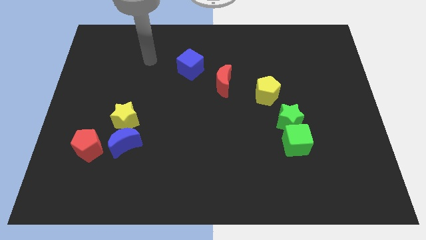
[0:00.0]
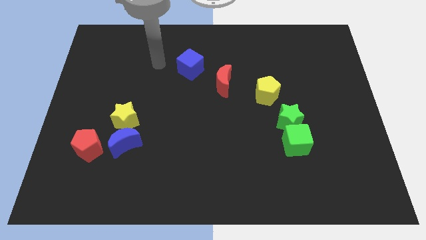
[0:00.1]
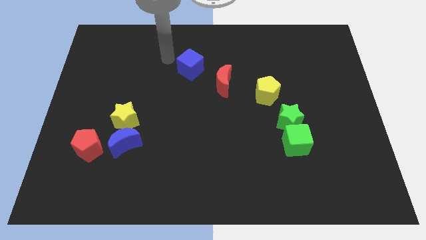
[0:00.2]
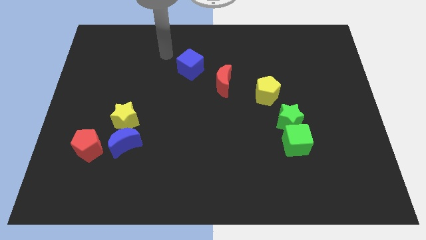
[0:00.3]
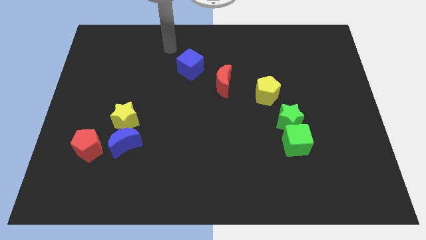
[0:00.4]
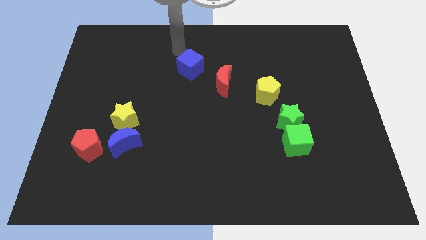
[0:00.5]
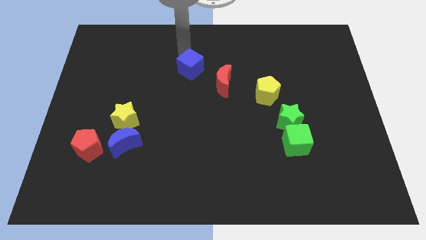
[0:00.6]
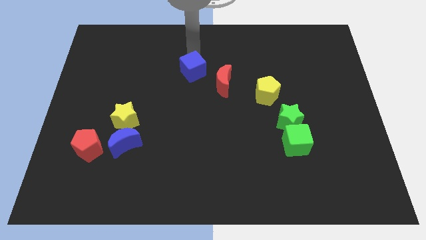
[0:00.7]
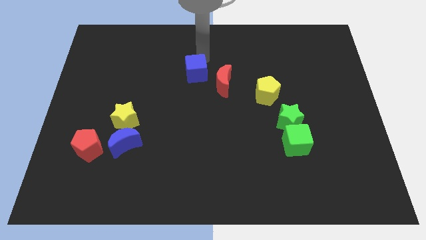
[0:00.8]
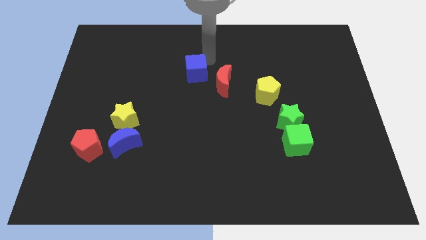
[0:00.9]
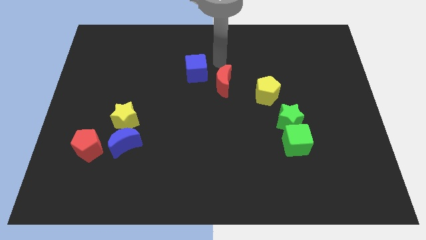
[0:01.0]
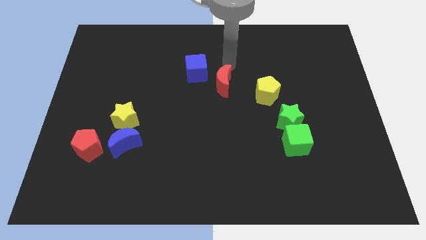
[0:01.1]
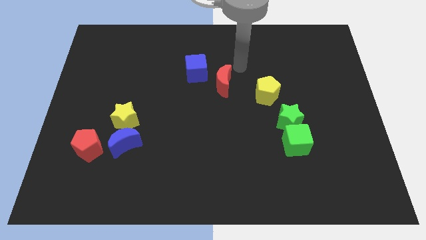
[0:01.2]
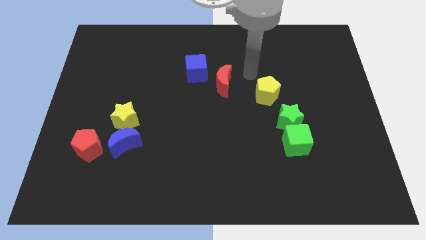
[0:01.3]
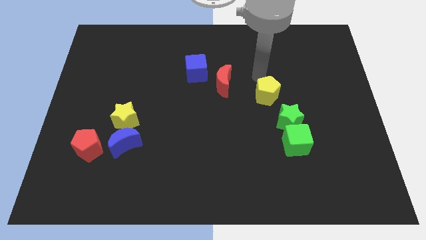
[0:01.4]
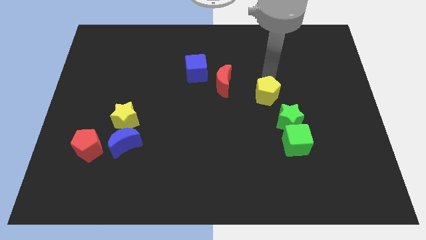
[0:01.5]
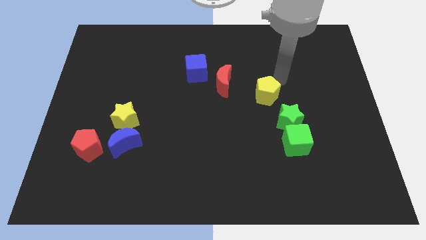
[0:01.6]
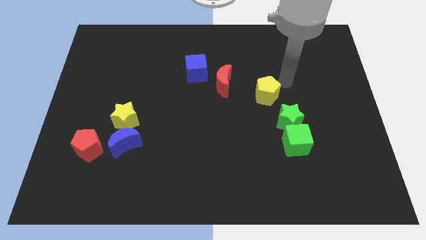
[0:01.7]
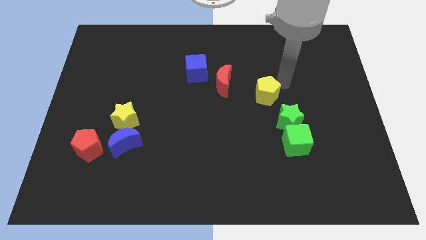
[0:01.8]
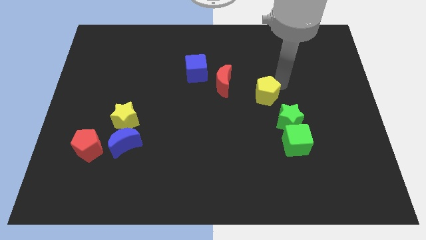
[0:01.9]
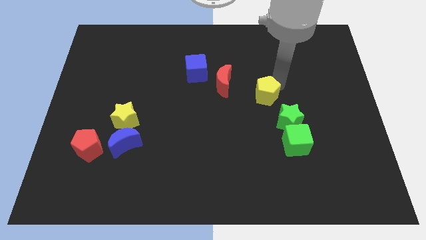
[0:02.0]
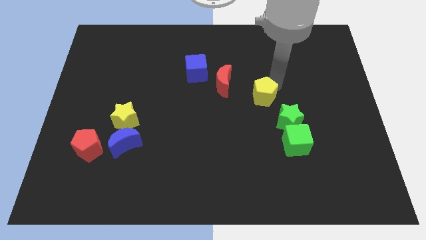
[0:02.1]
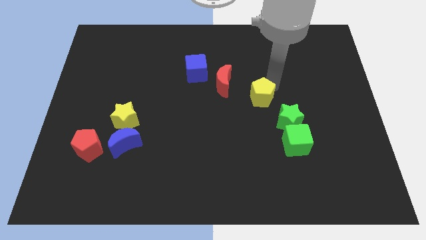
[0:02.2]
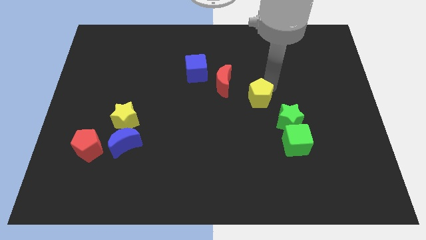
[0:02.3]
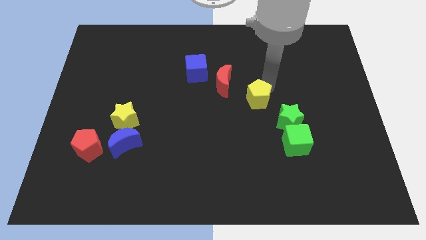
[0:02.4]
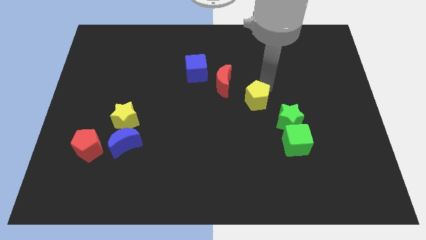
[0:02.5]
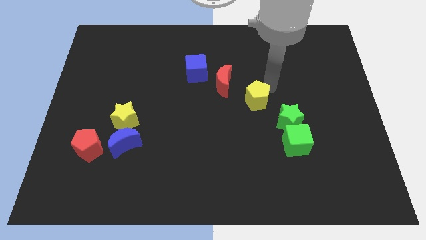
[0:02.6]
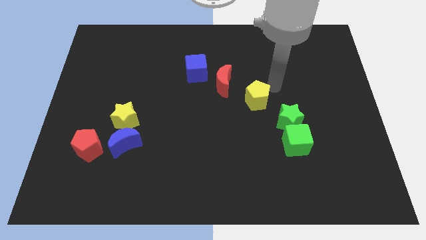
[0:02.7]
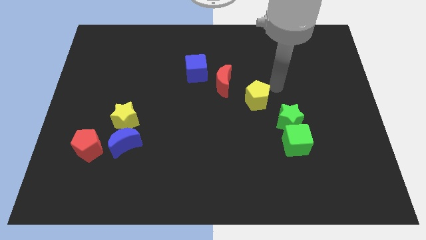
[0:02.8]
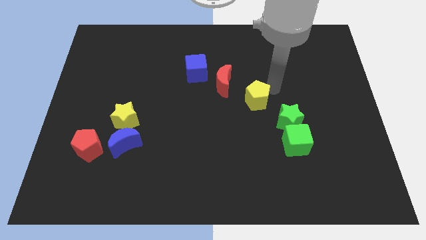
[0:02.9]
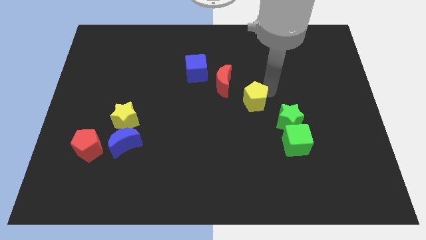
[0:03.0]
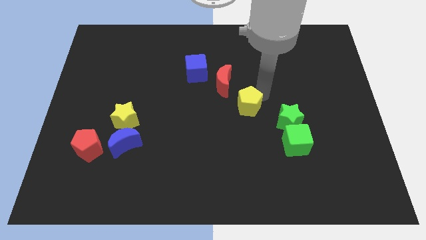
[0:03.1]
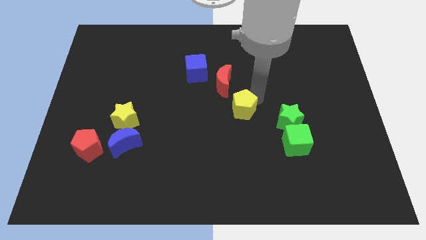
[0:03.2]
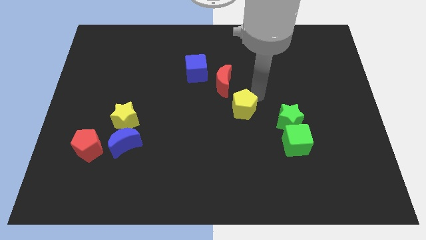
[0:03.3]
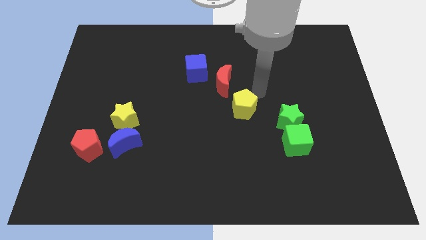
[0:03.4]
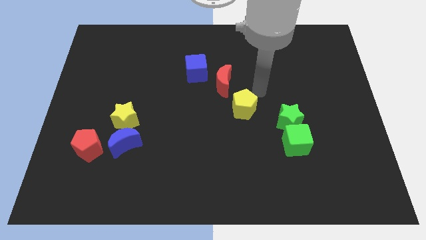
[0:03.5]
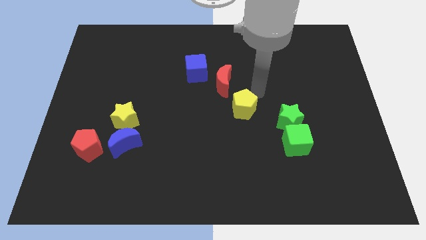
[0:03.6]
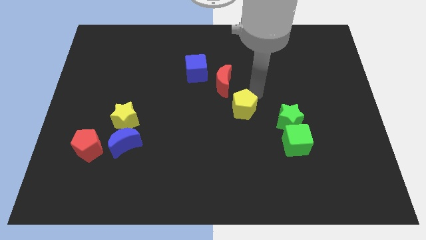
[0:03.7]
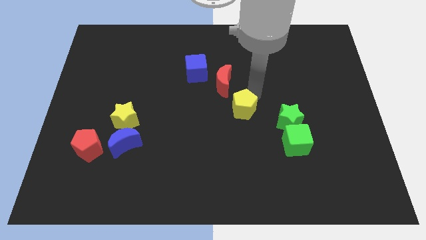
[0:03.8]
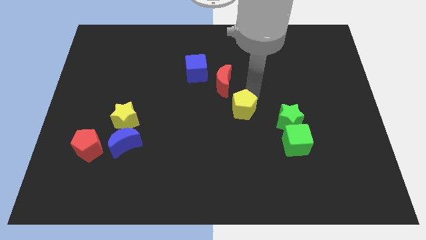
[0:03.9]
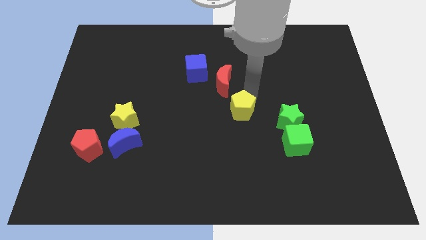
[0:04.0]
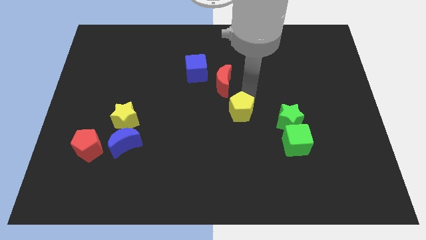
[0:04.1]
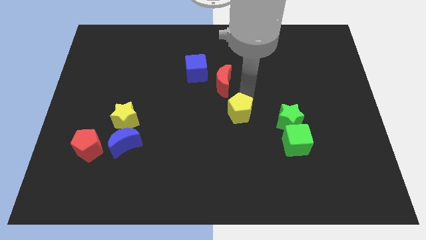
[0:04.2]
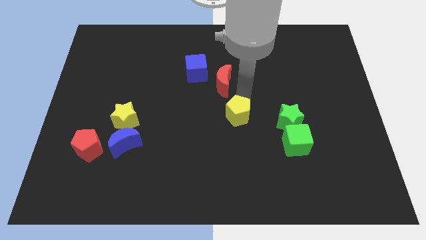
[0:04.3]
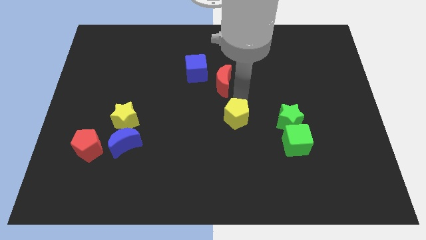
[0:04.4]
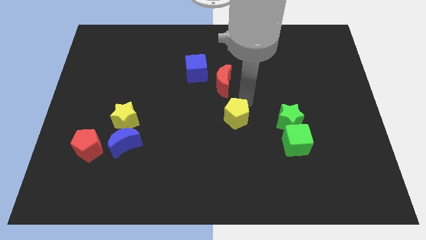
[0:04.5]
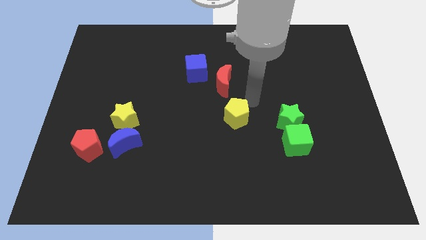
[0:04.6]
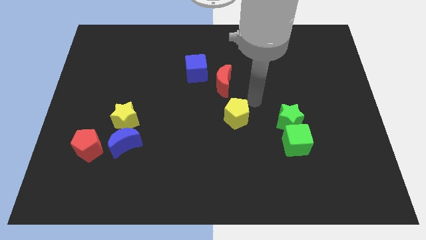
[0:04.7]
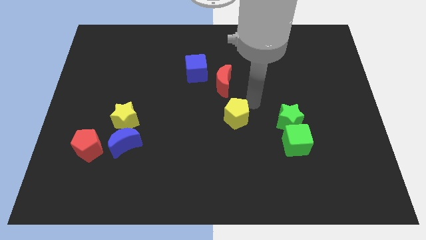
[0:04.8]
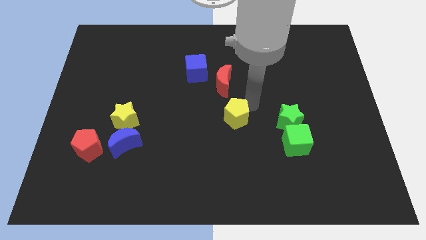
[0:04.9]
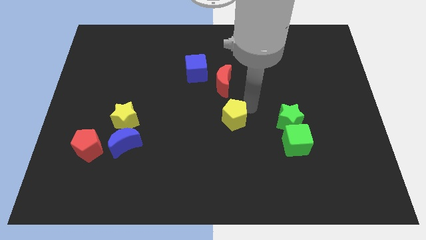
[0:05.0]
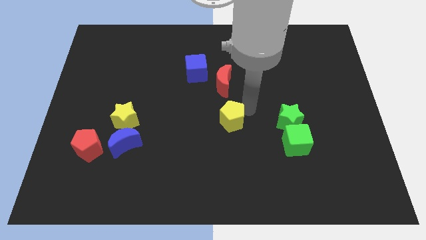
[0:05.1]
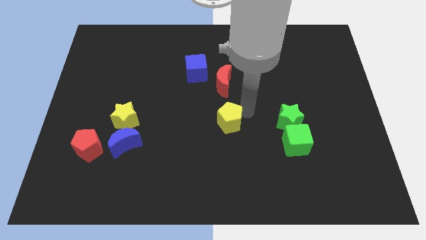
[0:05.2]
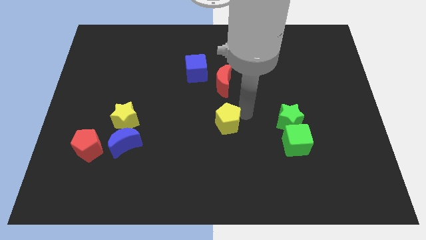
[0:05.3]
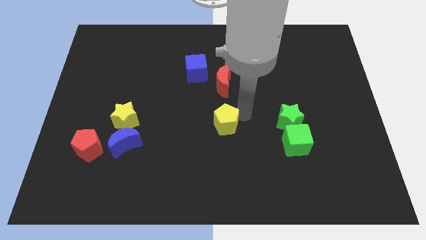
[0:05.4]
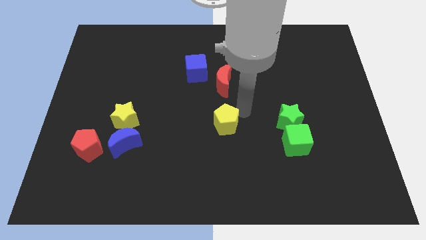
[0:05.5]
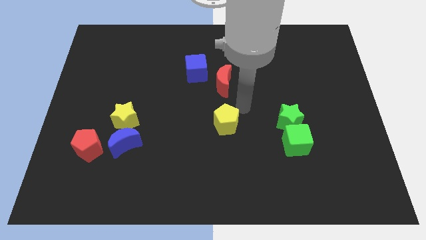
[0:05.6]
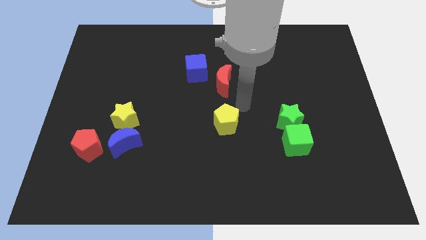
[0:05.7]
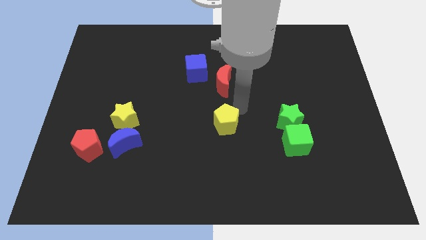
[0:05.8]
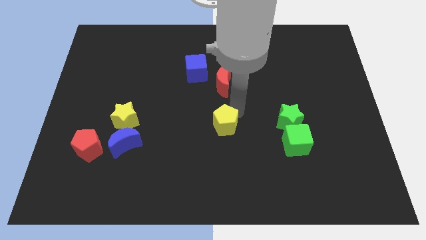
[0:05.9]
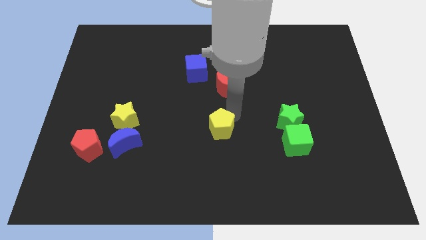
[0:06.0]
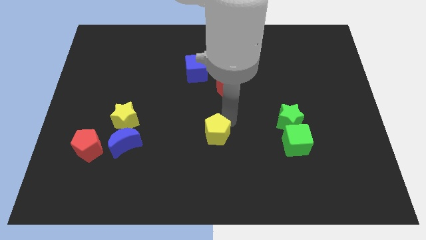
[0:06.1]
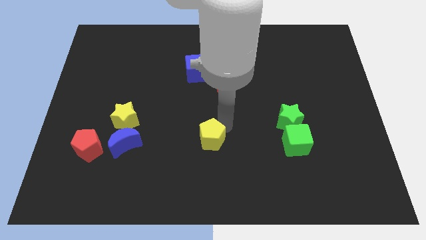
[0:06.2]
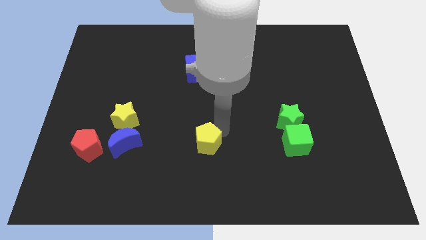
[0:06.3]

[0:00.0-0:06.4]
move the yellow pentagon diagonally down and to the left

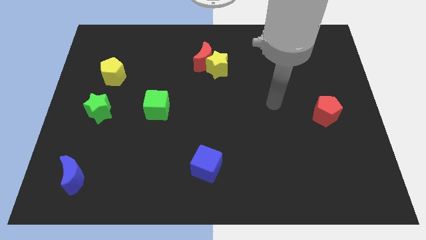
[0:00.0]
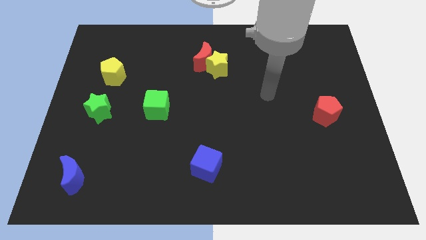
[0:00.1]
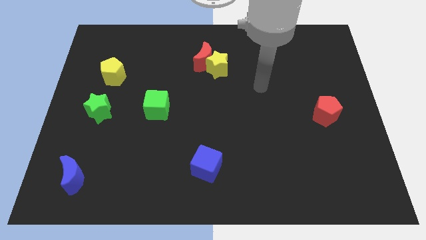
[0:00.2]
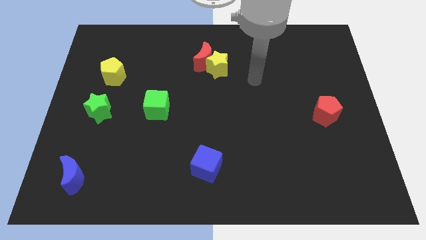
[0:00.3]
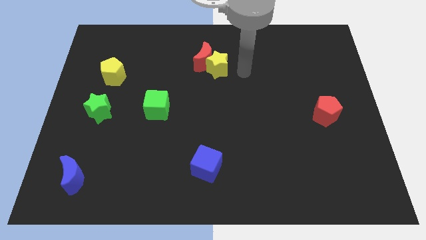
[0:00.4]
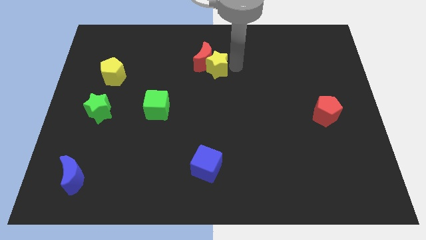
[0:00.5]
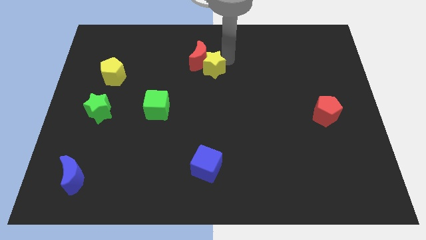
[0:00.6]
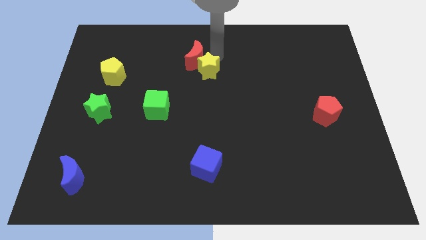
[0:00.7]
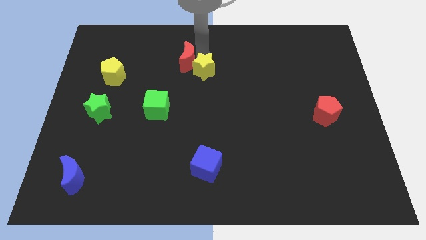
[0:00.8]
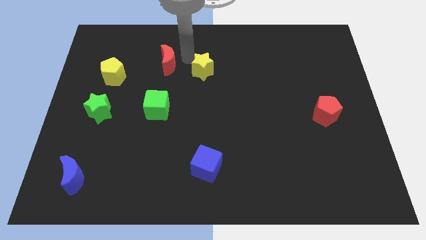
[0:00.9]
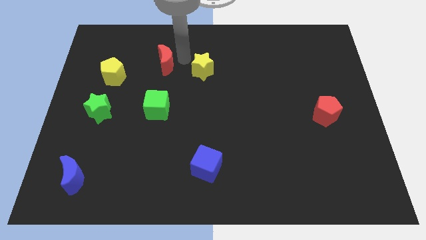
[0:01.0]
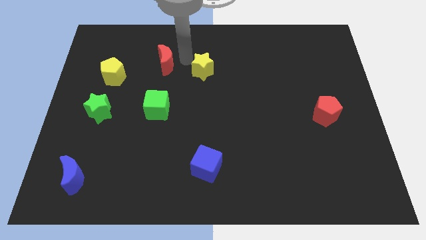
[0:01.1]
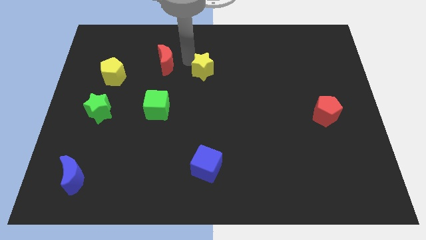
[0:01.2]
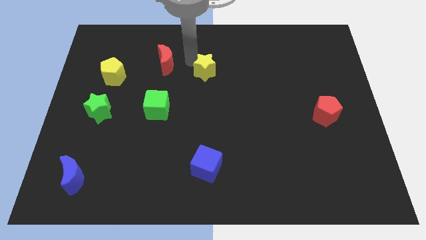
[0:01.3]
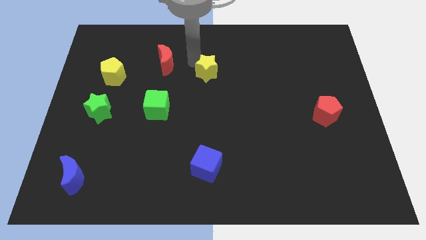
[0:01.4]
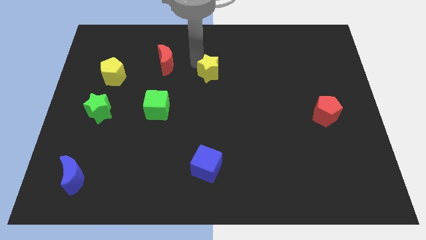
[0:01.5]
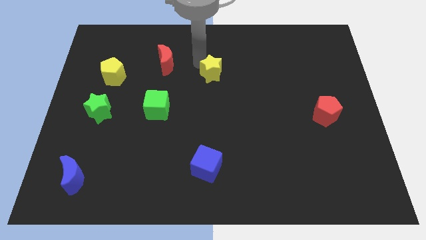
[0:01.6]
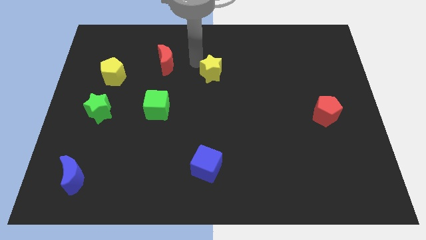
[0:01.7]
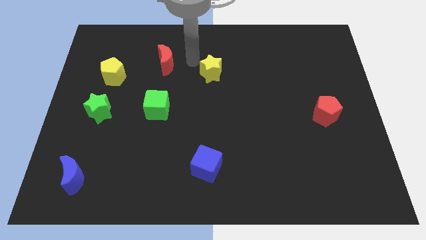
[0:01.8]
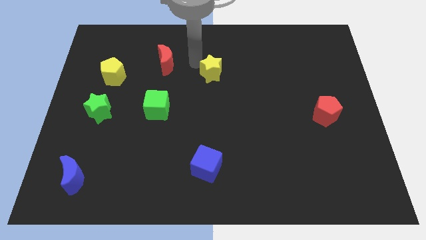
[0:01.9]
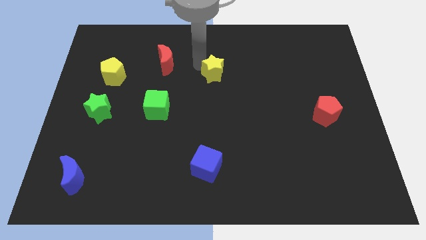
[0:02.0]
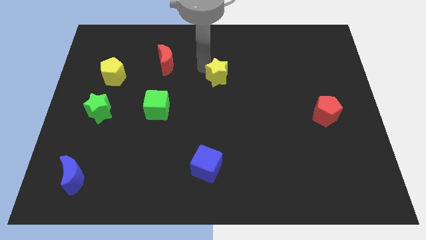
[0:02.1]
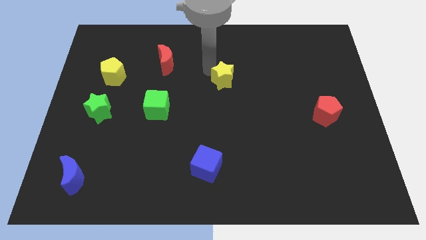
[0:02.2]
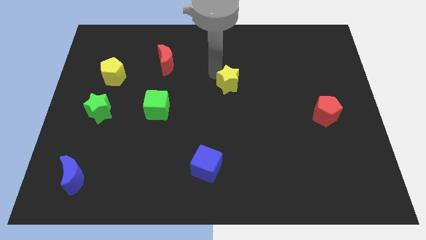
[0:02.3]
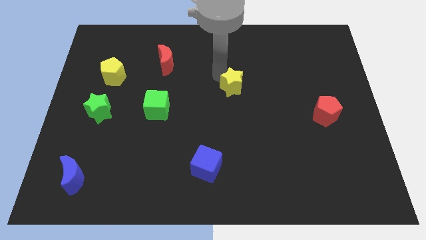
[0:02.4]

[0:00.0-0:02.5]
push the yellow star diagonally downwards and right a little bit
